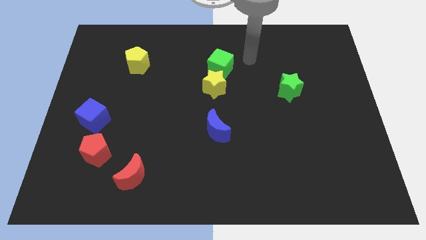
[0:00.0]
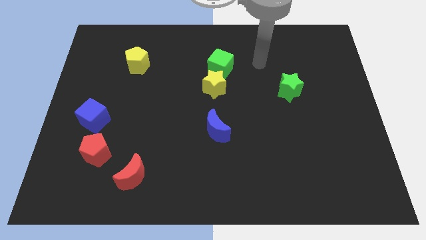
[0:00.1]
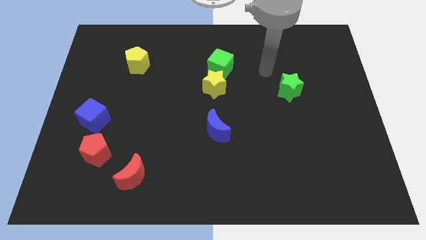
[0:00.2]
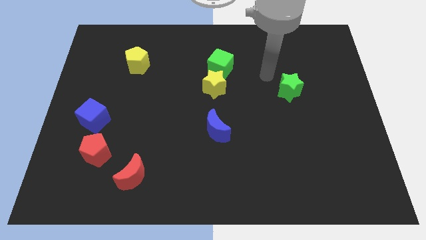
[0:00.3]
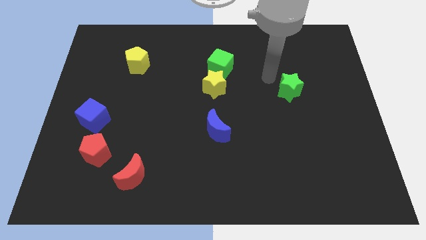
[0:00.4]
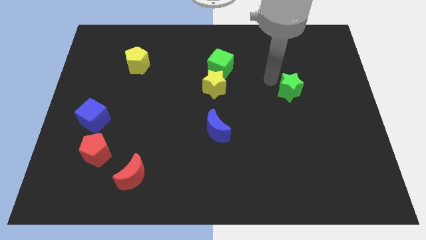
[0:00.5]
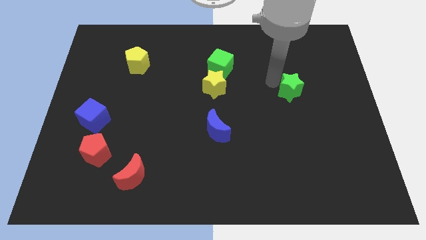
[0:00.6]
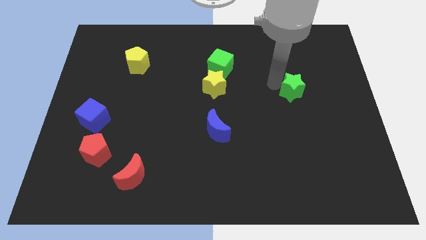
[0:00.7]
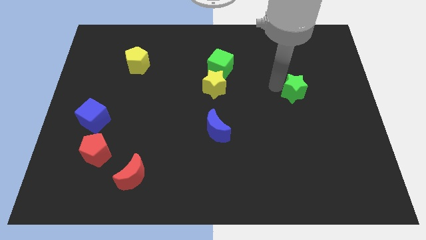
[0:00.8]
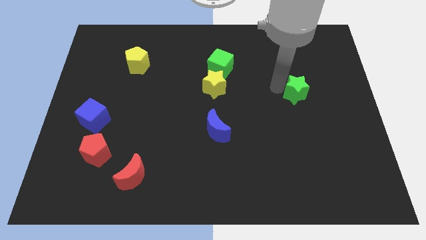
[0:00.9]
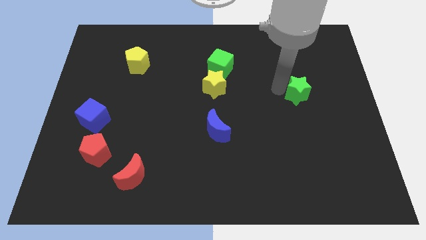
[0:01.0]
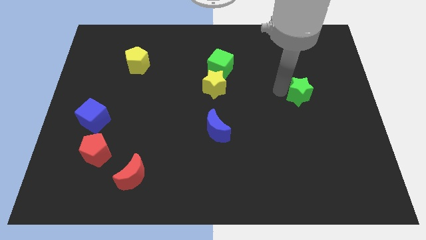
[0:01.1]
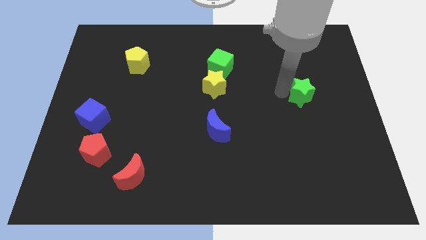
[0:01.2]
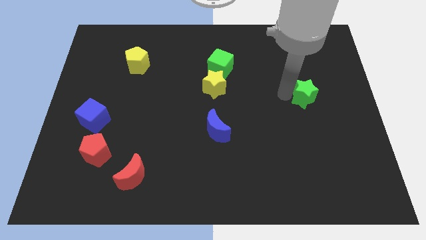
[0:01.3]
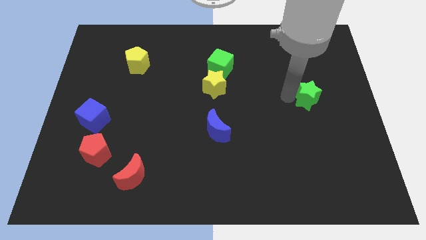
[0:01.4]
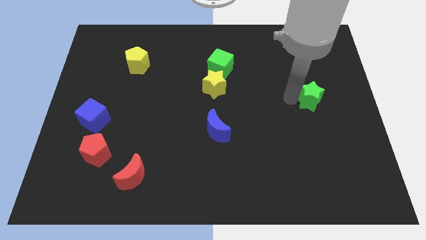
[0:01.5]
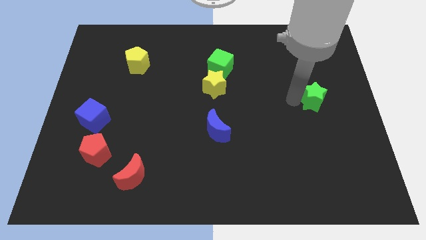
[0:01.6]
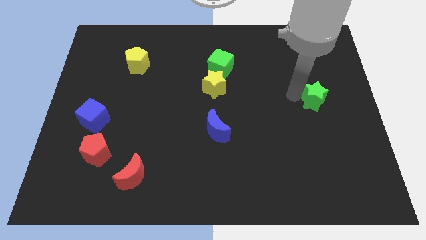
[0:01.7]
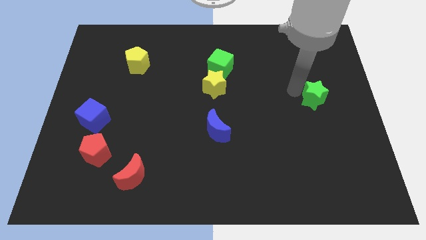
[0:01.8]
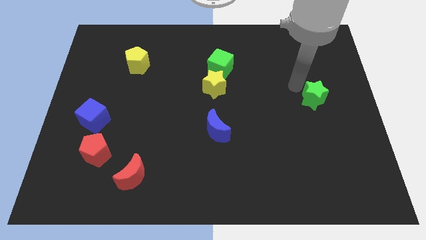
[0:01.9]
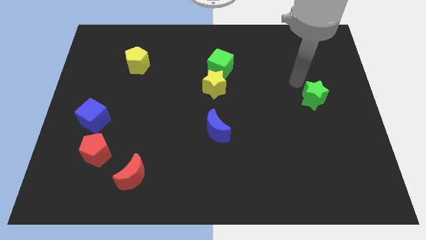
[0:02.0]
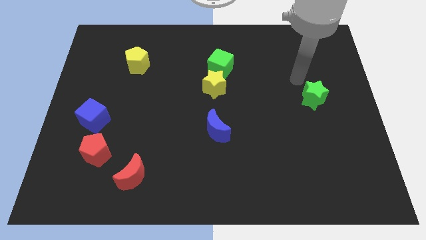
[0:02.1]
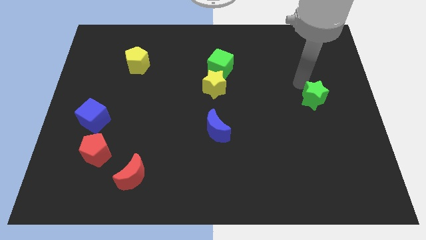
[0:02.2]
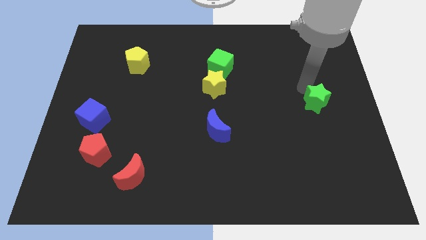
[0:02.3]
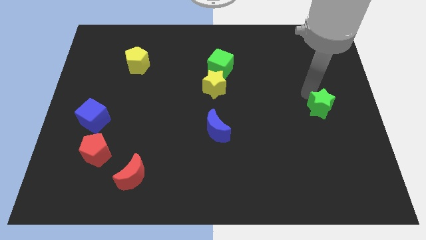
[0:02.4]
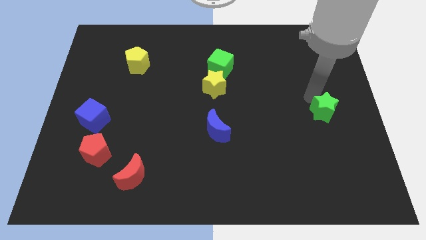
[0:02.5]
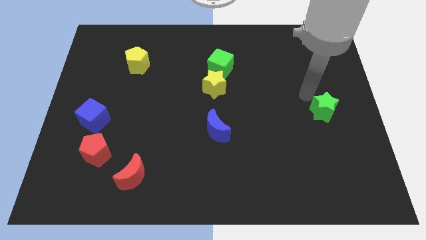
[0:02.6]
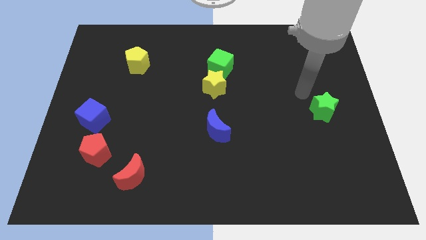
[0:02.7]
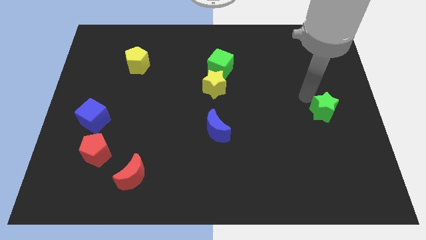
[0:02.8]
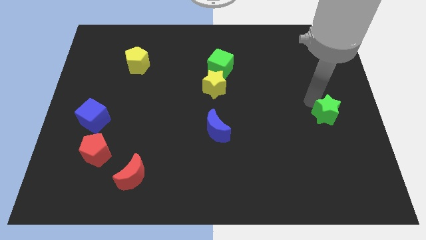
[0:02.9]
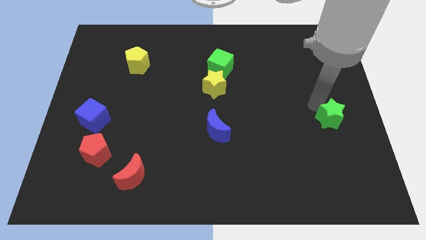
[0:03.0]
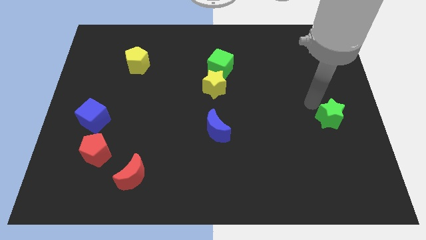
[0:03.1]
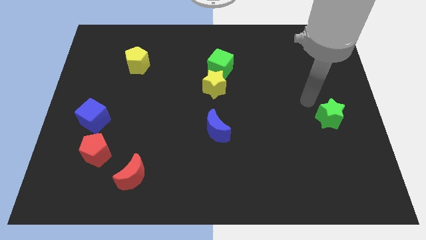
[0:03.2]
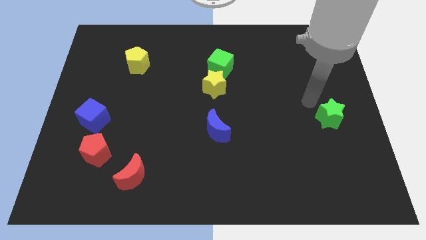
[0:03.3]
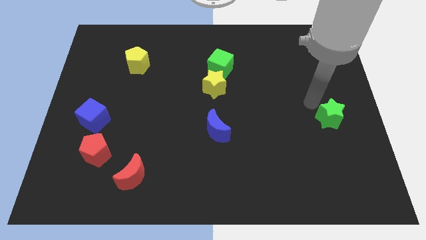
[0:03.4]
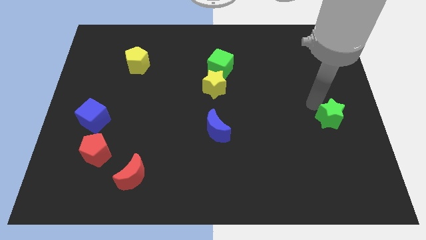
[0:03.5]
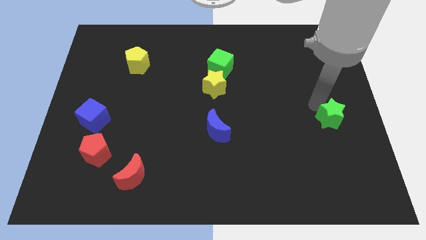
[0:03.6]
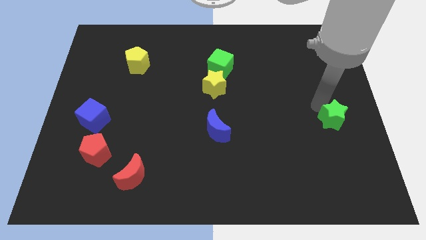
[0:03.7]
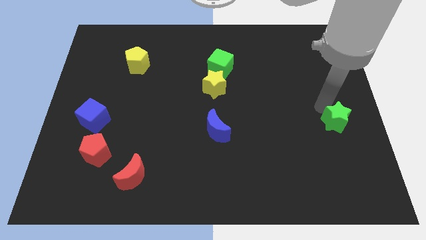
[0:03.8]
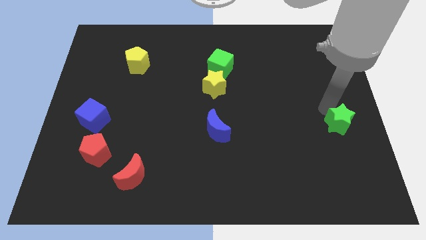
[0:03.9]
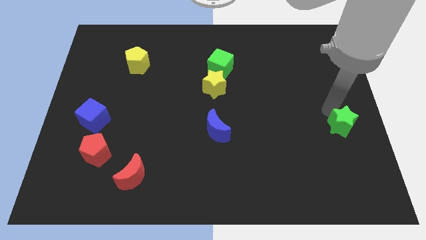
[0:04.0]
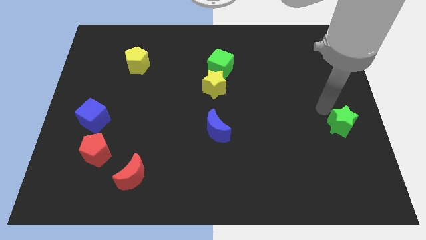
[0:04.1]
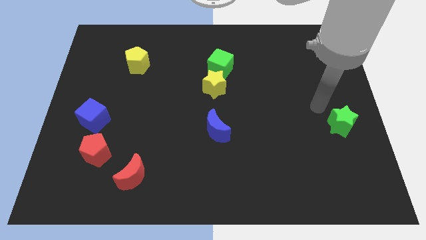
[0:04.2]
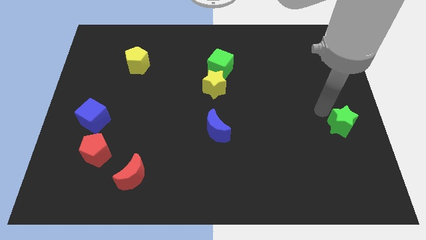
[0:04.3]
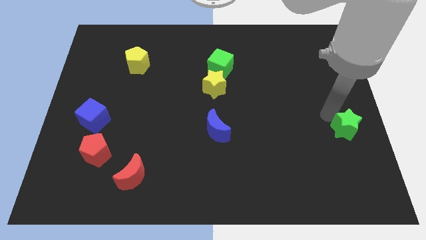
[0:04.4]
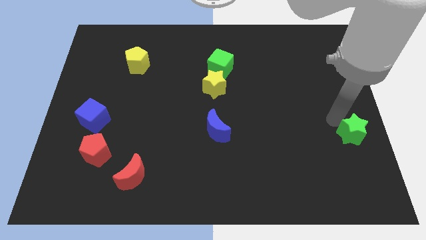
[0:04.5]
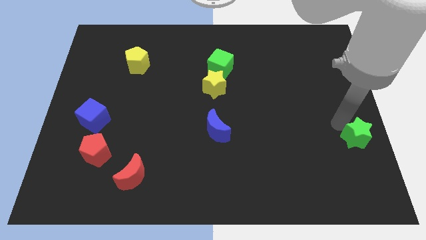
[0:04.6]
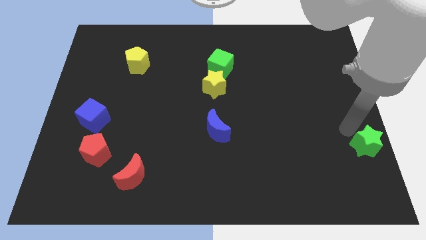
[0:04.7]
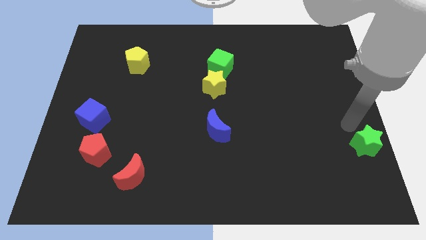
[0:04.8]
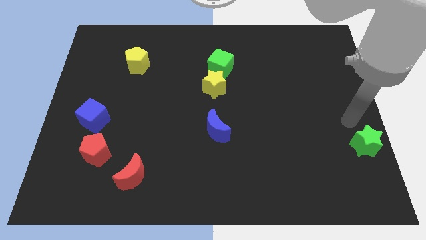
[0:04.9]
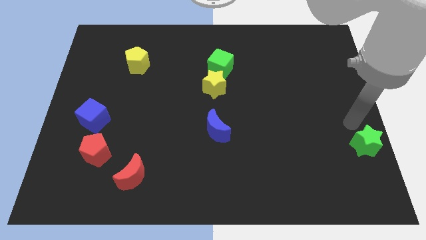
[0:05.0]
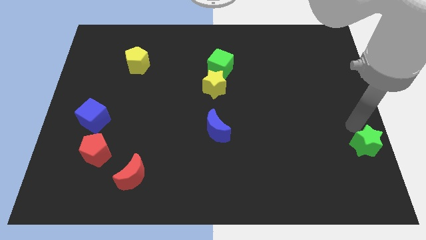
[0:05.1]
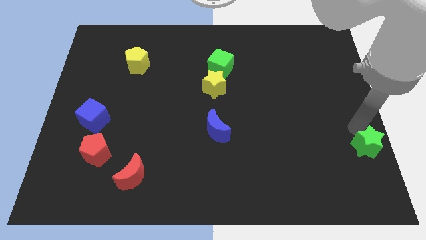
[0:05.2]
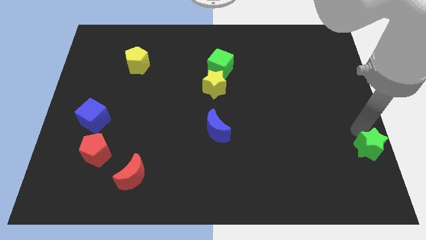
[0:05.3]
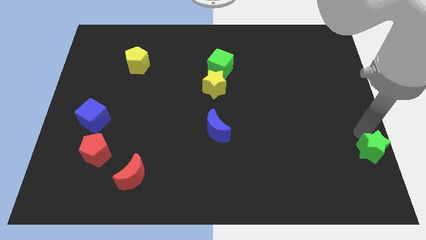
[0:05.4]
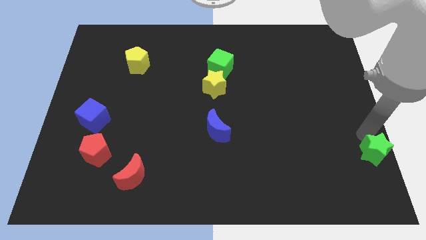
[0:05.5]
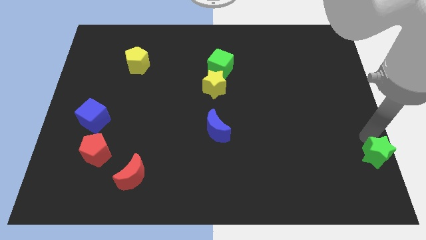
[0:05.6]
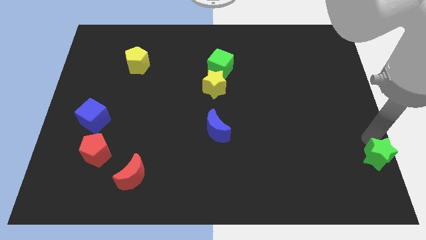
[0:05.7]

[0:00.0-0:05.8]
move the green star to the lower right corner

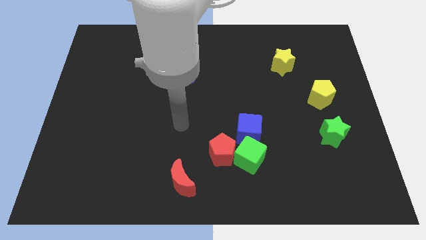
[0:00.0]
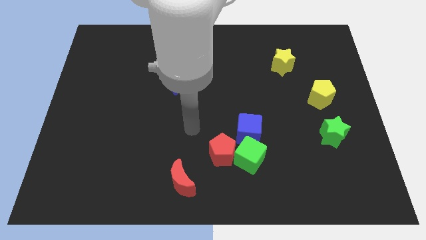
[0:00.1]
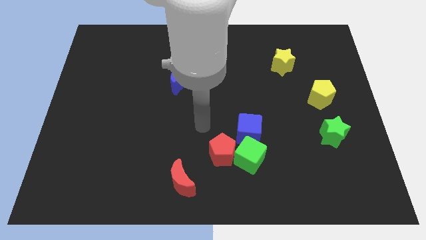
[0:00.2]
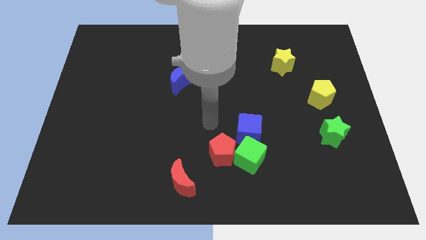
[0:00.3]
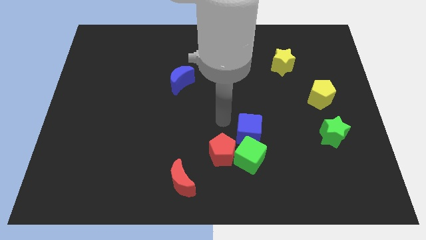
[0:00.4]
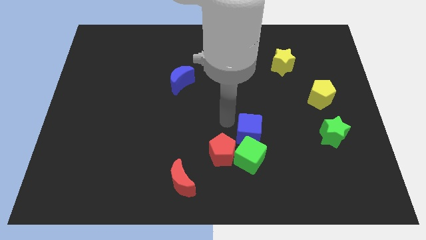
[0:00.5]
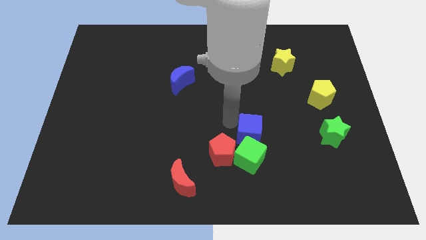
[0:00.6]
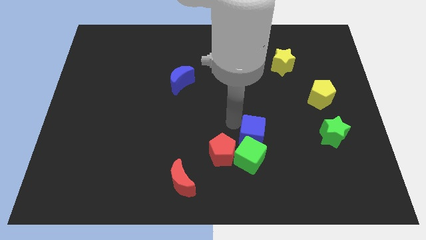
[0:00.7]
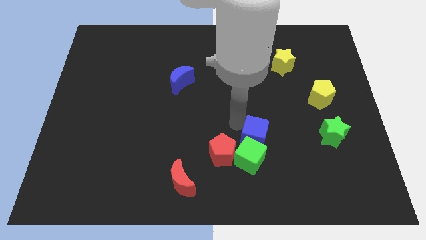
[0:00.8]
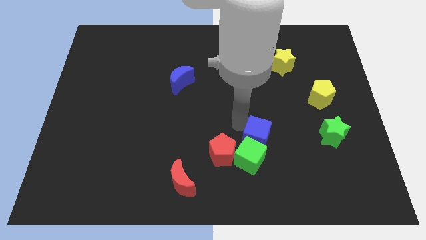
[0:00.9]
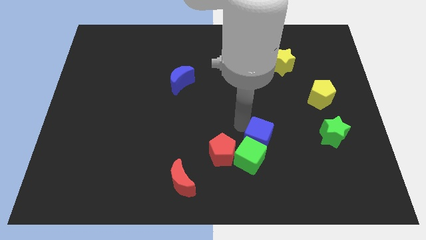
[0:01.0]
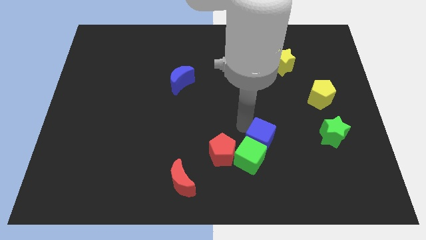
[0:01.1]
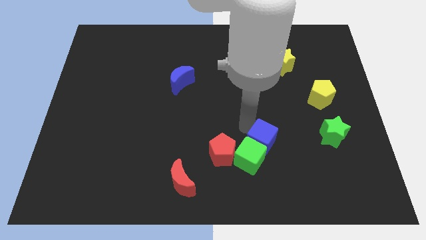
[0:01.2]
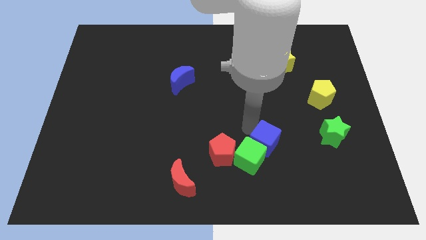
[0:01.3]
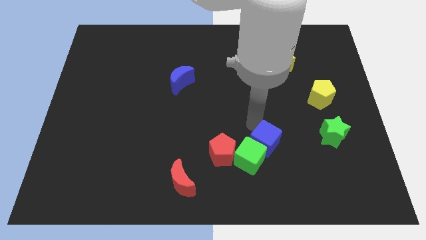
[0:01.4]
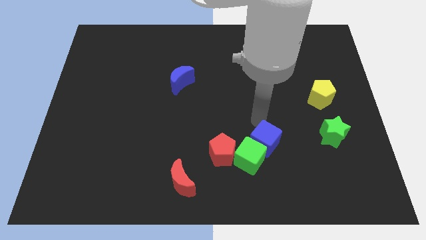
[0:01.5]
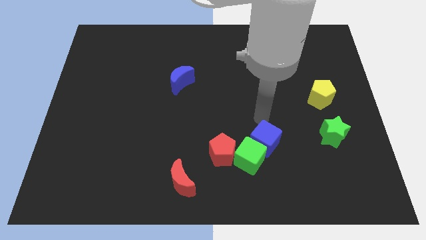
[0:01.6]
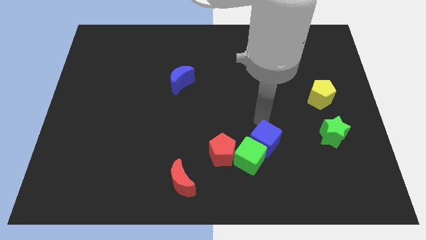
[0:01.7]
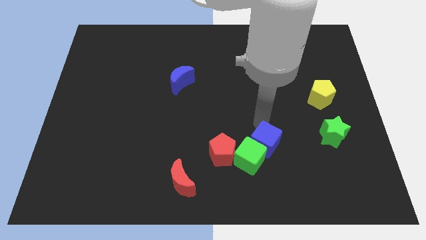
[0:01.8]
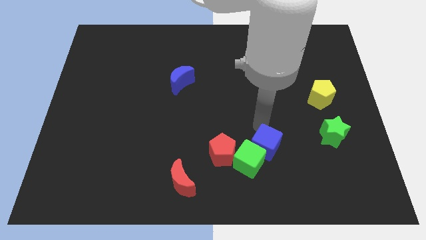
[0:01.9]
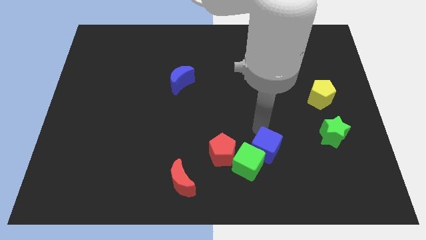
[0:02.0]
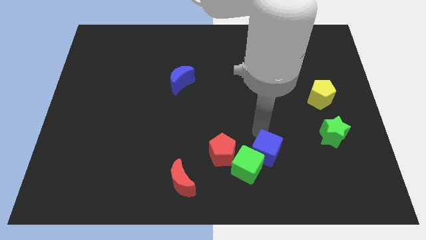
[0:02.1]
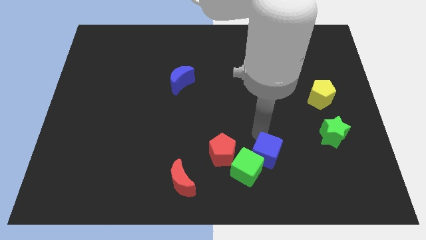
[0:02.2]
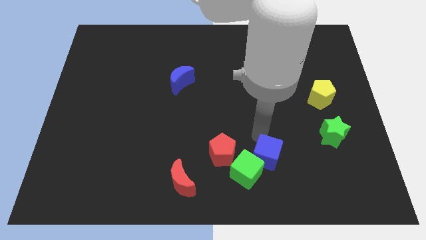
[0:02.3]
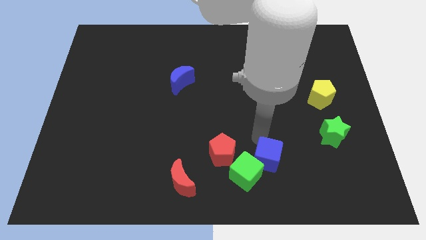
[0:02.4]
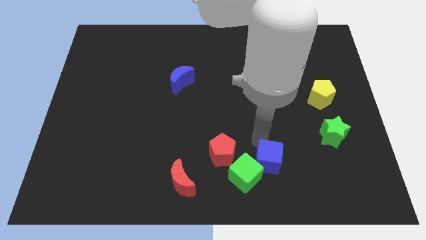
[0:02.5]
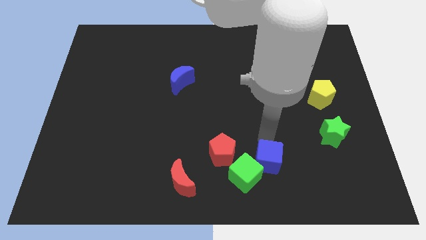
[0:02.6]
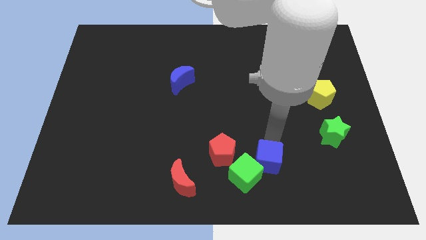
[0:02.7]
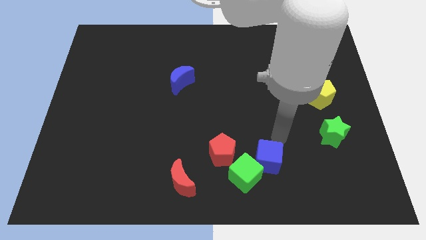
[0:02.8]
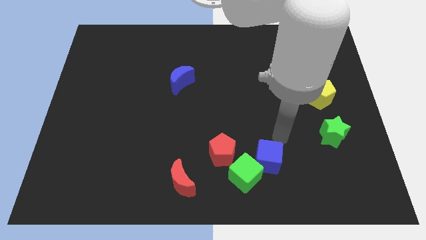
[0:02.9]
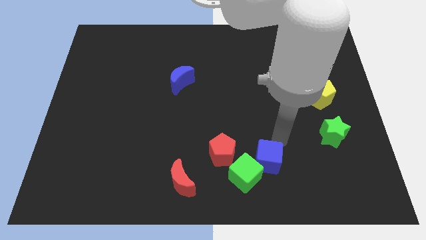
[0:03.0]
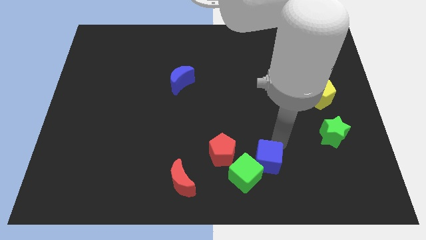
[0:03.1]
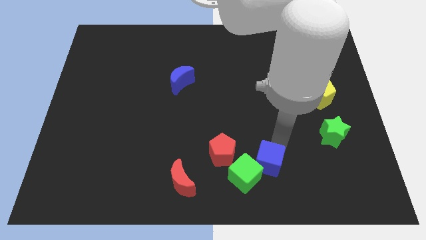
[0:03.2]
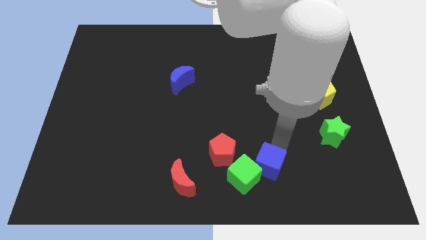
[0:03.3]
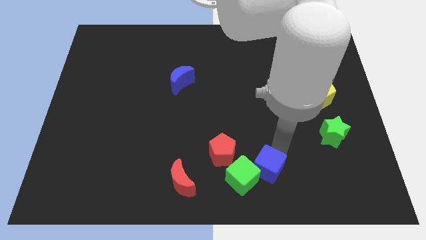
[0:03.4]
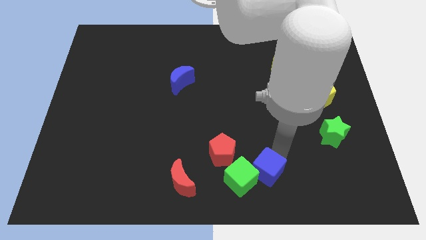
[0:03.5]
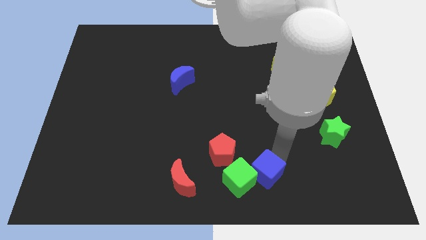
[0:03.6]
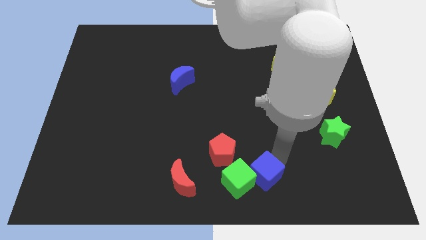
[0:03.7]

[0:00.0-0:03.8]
push the blue cube to the bottom side
